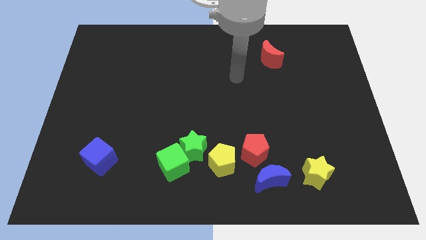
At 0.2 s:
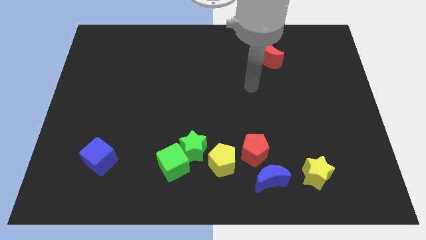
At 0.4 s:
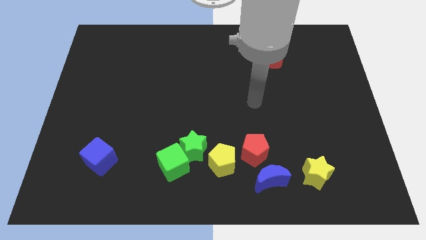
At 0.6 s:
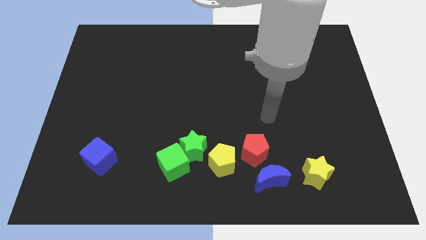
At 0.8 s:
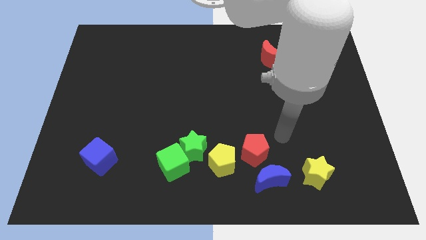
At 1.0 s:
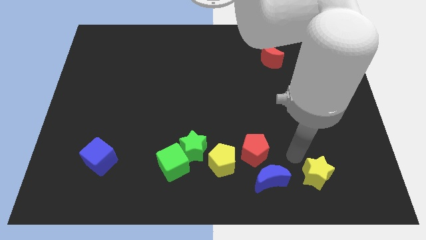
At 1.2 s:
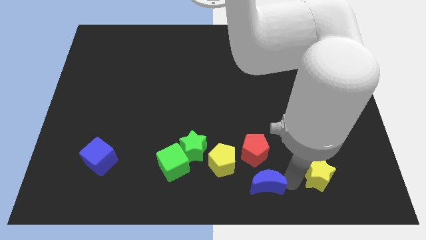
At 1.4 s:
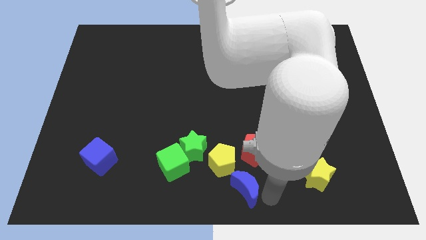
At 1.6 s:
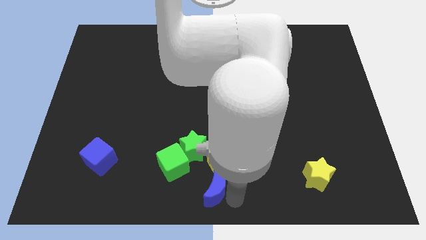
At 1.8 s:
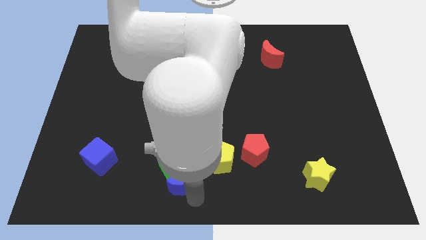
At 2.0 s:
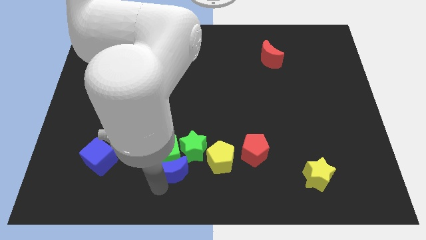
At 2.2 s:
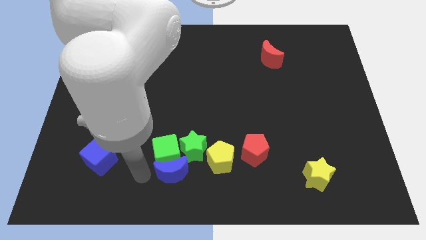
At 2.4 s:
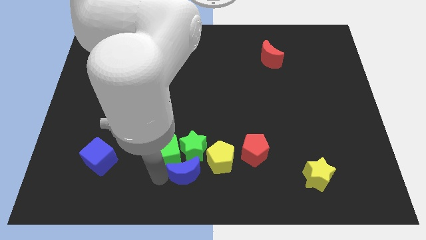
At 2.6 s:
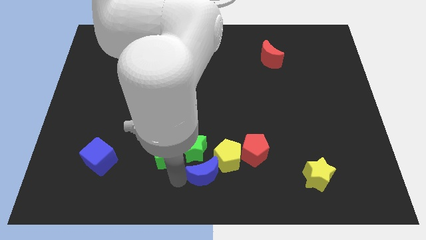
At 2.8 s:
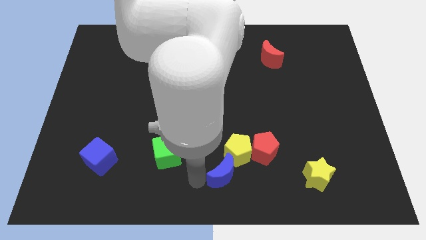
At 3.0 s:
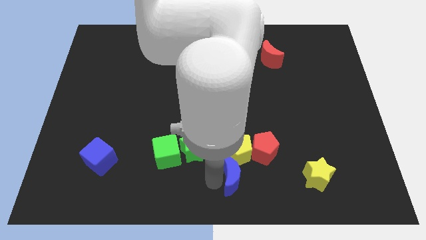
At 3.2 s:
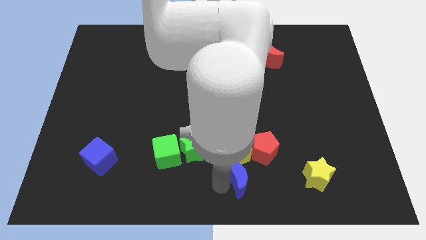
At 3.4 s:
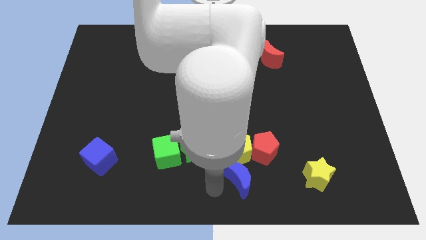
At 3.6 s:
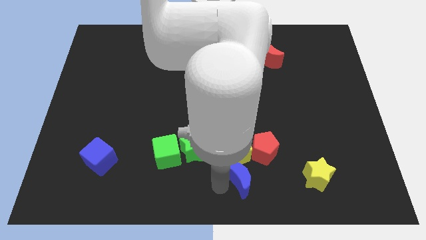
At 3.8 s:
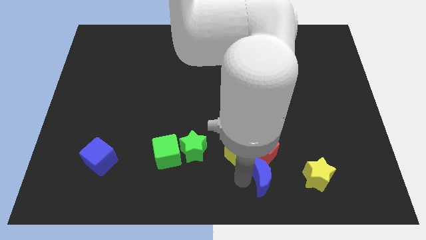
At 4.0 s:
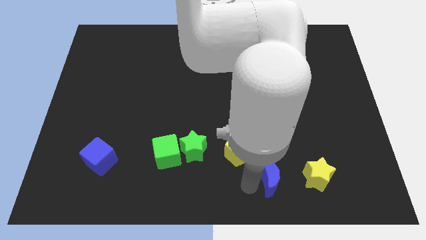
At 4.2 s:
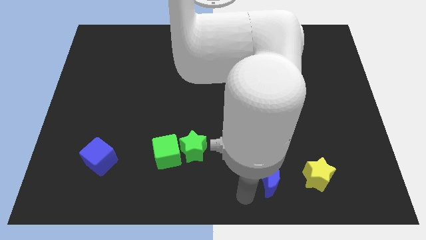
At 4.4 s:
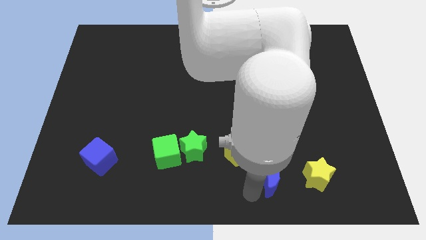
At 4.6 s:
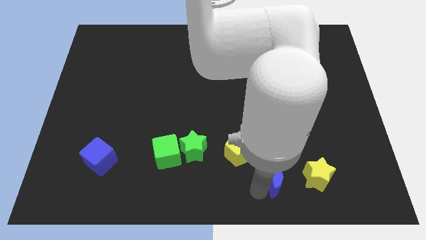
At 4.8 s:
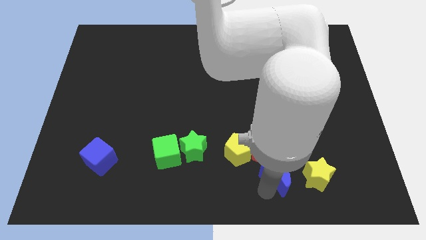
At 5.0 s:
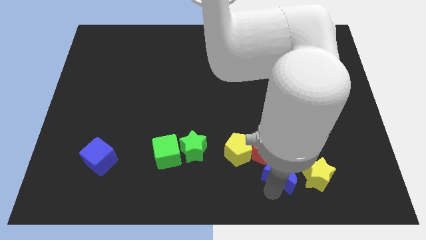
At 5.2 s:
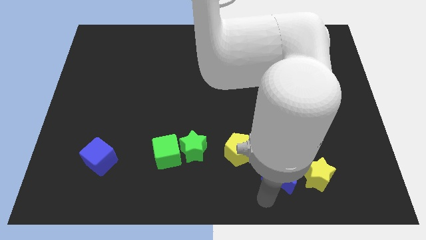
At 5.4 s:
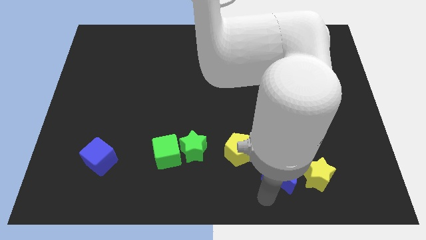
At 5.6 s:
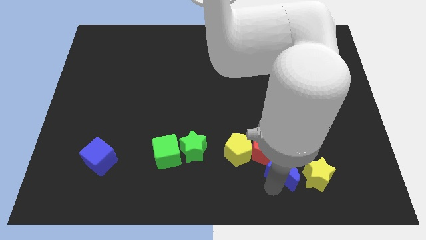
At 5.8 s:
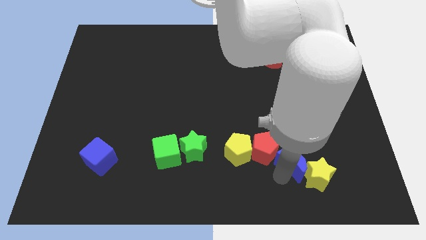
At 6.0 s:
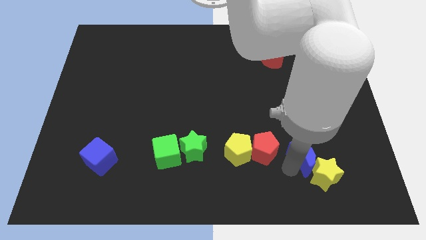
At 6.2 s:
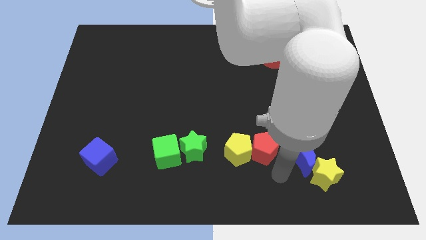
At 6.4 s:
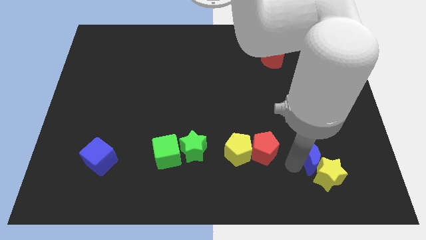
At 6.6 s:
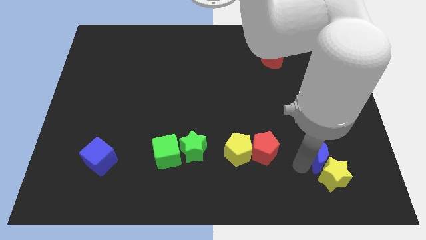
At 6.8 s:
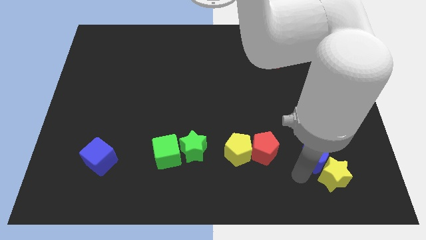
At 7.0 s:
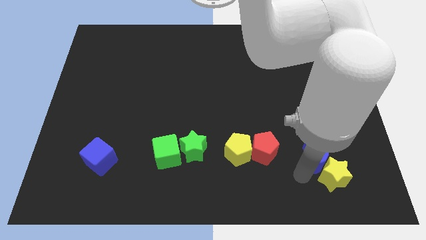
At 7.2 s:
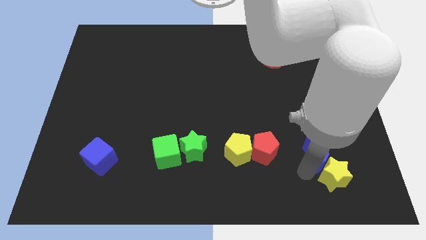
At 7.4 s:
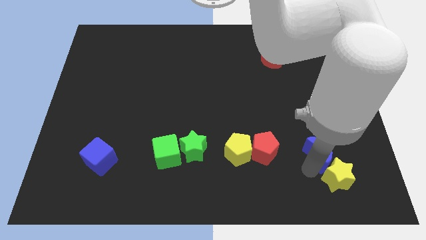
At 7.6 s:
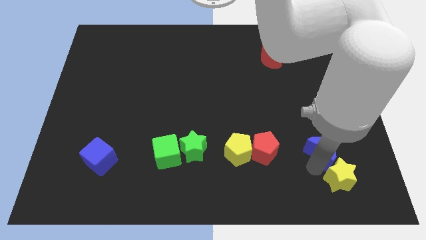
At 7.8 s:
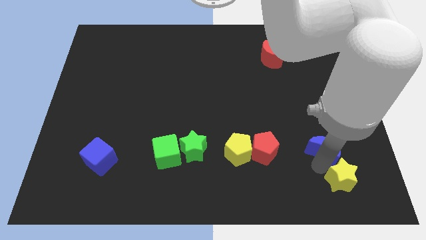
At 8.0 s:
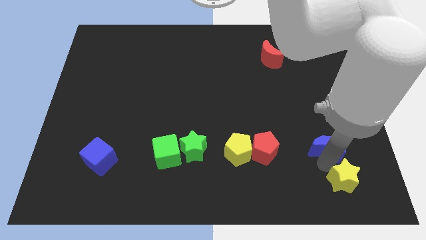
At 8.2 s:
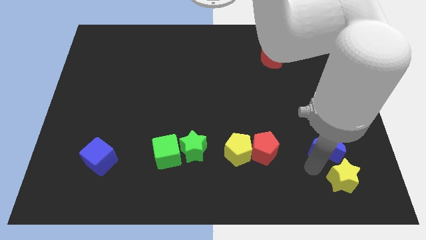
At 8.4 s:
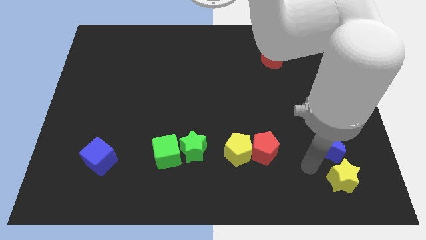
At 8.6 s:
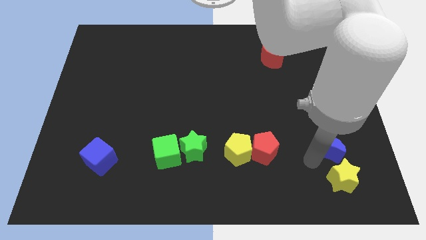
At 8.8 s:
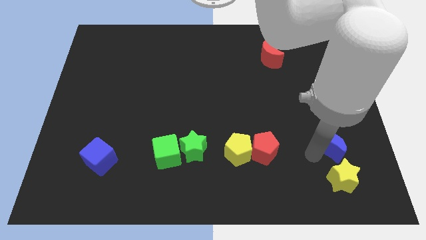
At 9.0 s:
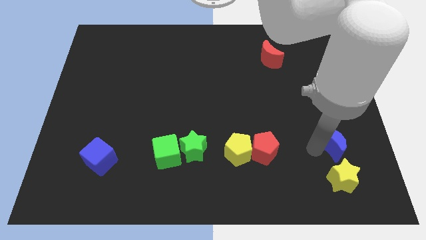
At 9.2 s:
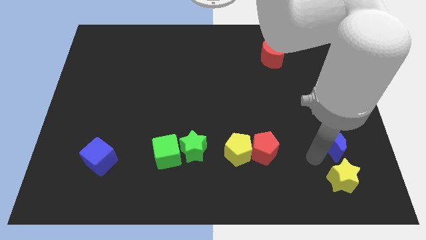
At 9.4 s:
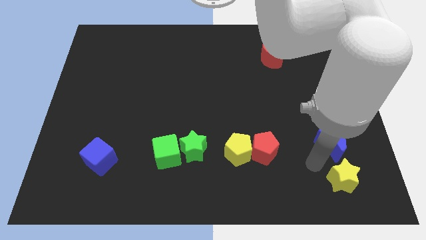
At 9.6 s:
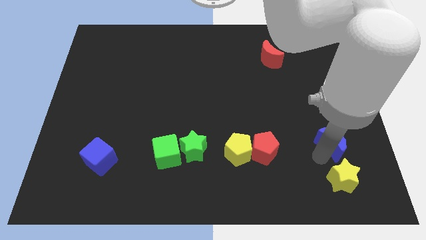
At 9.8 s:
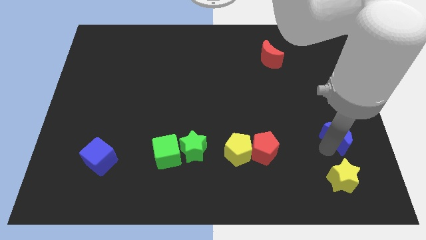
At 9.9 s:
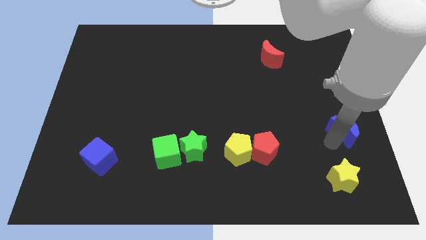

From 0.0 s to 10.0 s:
slide the blue moon to the right side of the board

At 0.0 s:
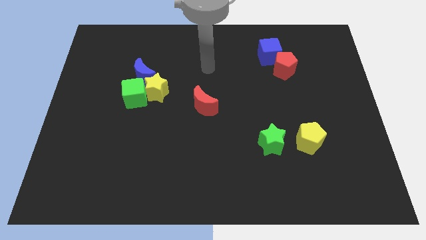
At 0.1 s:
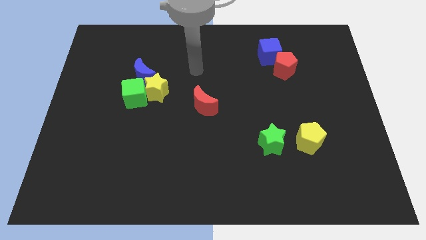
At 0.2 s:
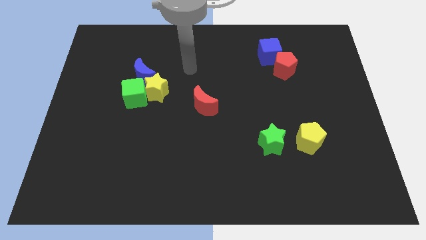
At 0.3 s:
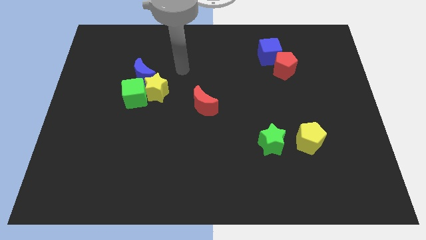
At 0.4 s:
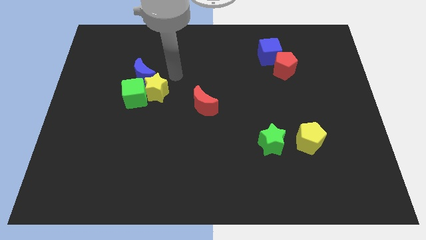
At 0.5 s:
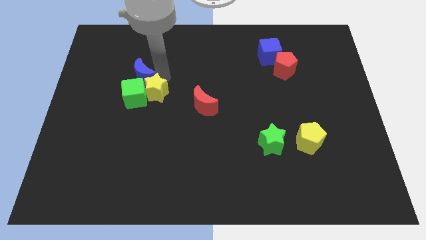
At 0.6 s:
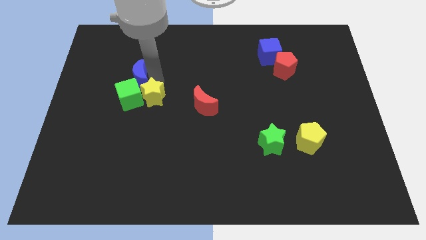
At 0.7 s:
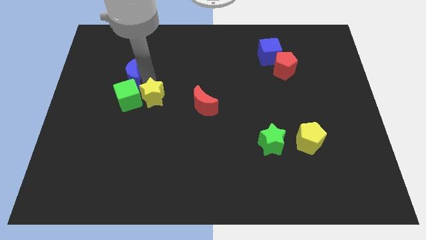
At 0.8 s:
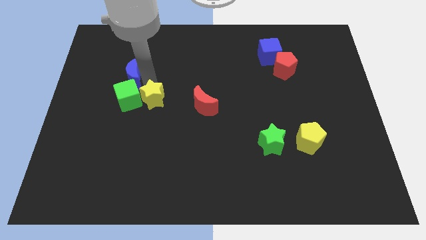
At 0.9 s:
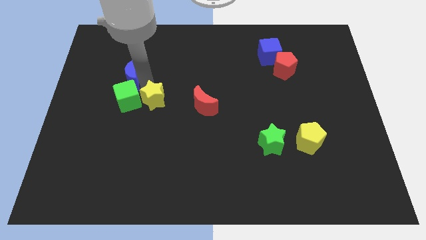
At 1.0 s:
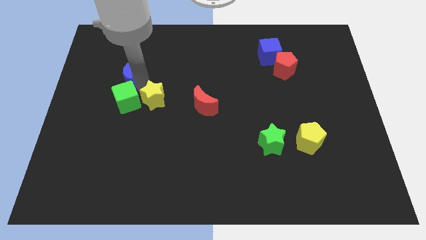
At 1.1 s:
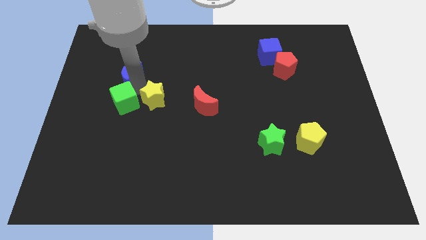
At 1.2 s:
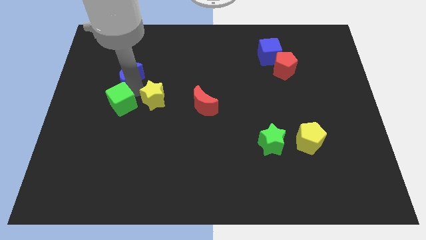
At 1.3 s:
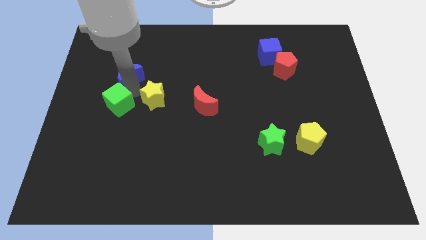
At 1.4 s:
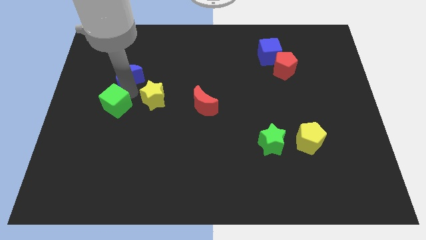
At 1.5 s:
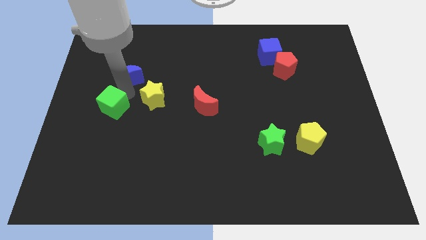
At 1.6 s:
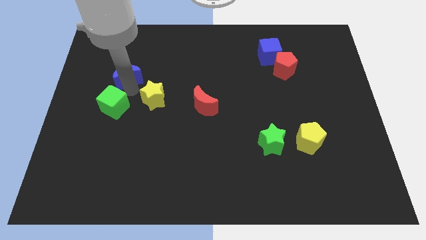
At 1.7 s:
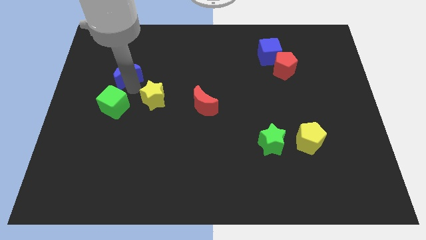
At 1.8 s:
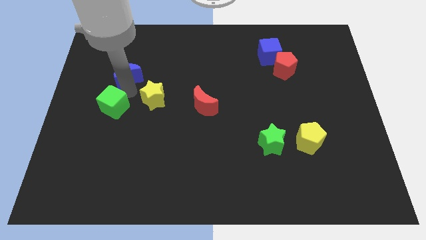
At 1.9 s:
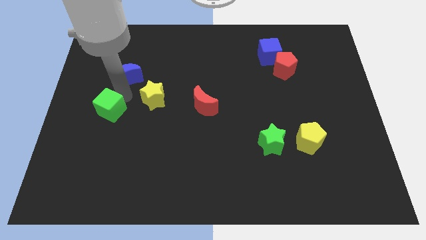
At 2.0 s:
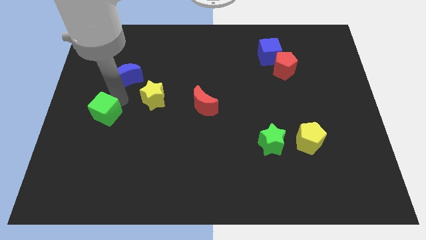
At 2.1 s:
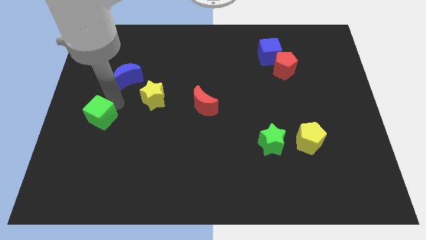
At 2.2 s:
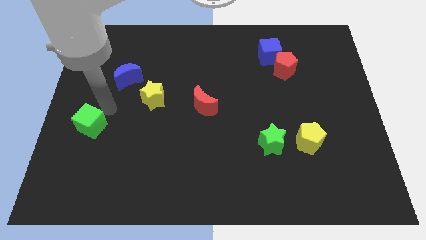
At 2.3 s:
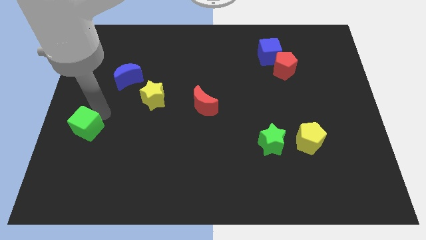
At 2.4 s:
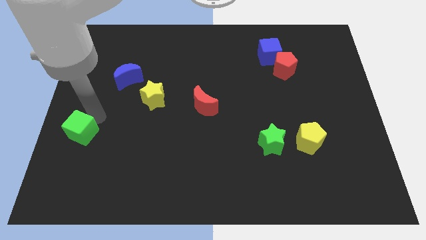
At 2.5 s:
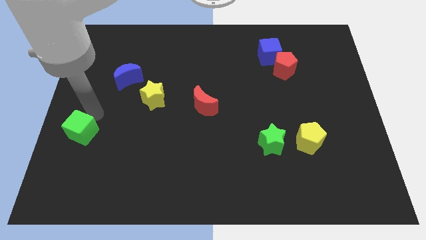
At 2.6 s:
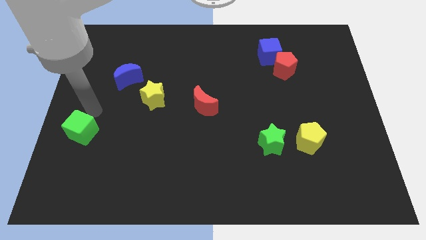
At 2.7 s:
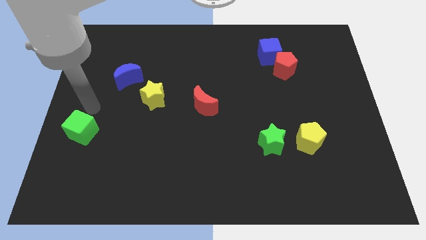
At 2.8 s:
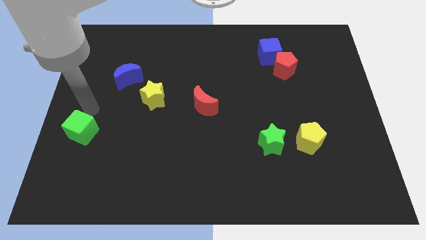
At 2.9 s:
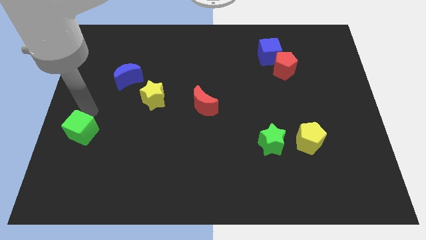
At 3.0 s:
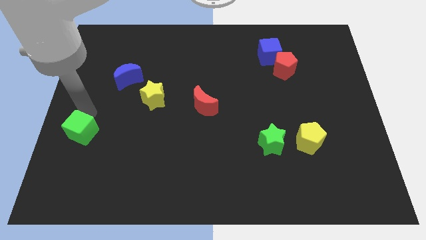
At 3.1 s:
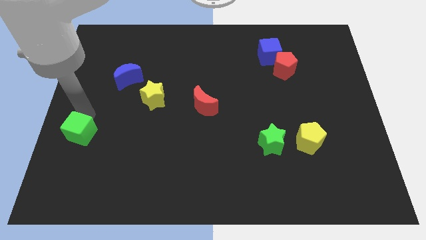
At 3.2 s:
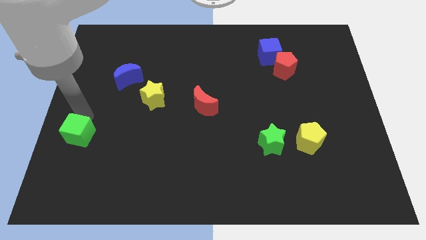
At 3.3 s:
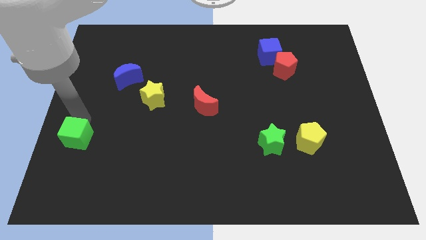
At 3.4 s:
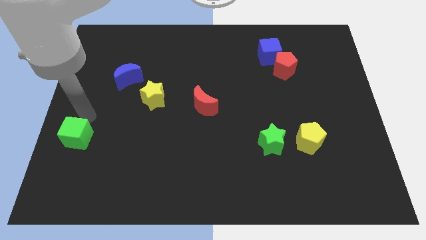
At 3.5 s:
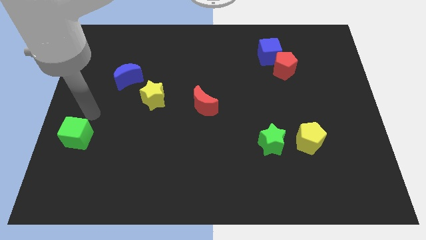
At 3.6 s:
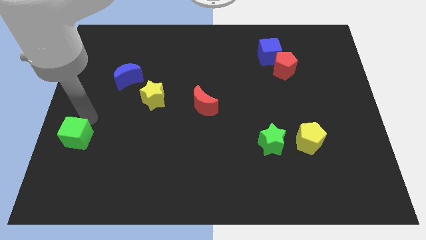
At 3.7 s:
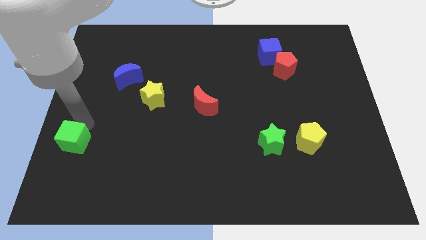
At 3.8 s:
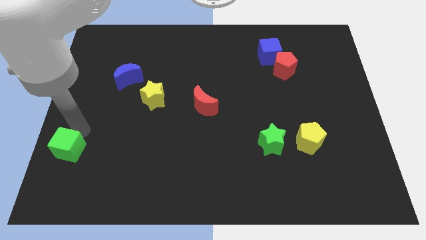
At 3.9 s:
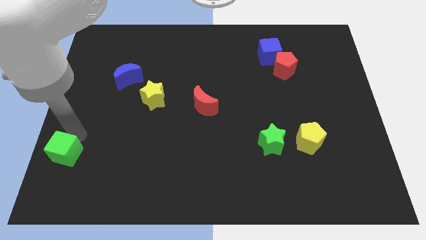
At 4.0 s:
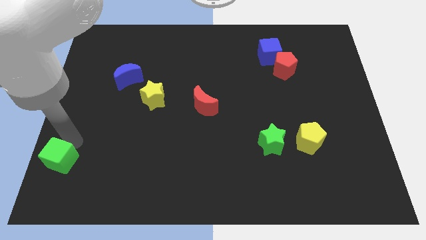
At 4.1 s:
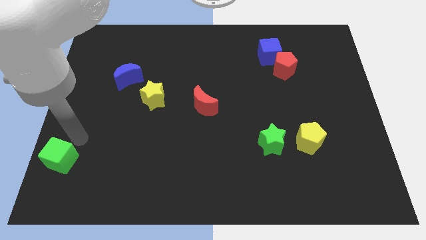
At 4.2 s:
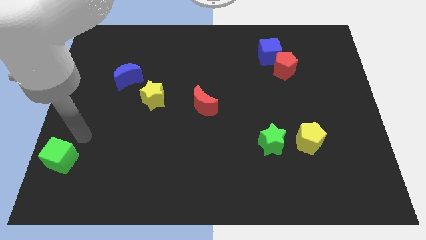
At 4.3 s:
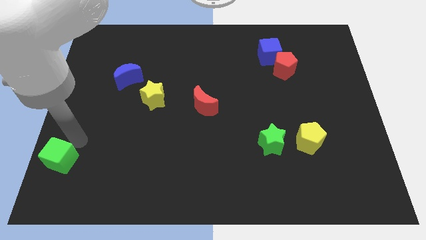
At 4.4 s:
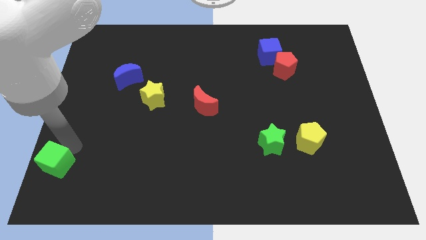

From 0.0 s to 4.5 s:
put the green cube to the bottom left corner
